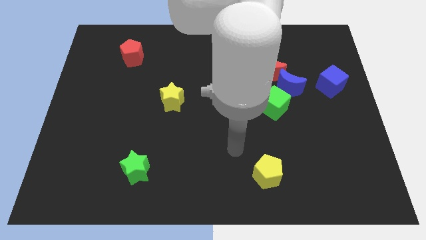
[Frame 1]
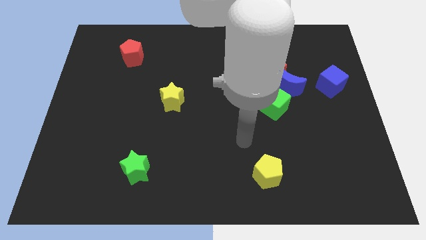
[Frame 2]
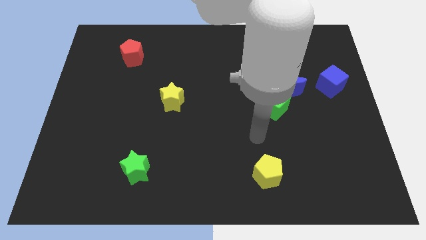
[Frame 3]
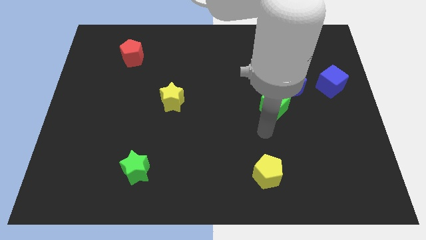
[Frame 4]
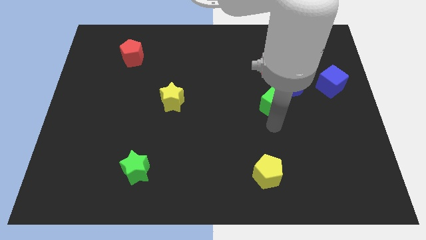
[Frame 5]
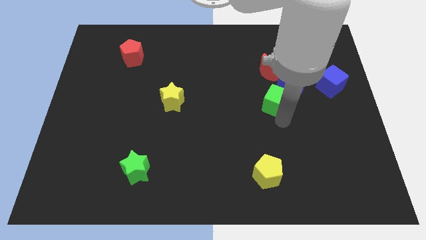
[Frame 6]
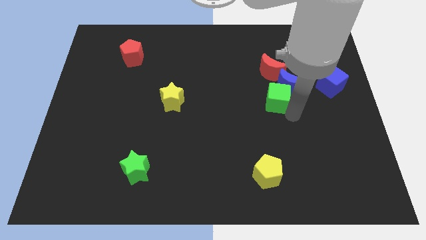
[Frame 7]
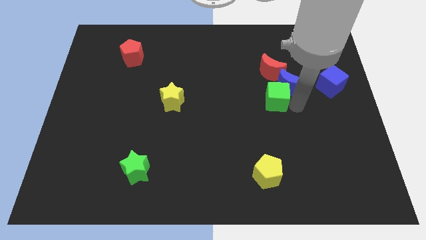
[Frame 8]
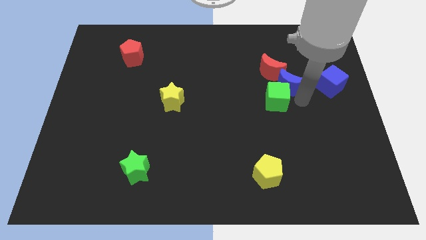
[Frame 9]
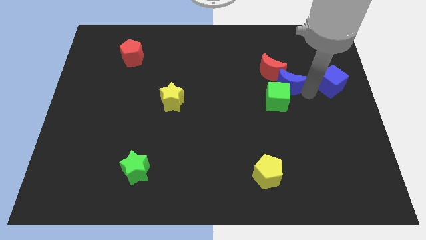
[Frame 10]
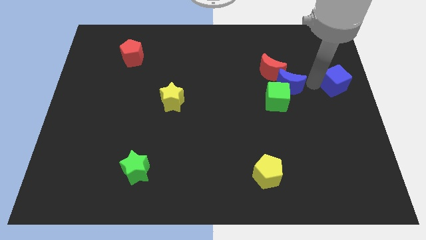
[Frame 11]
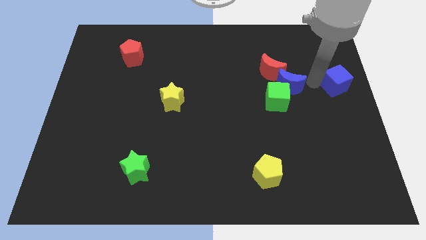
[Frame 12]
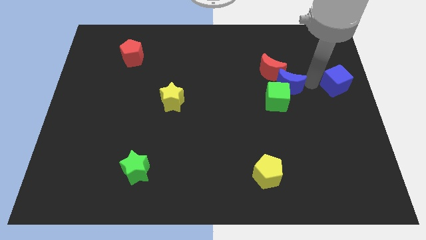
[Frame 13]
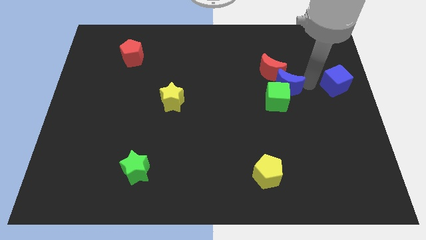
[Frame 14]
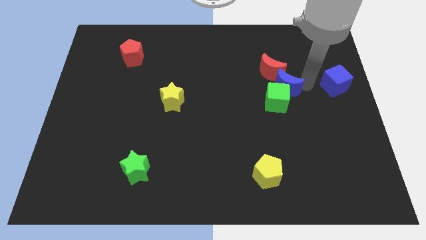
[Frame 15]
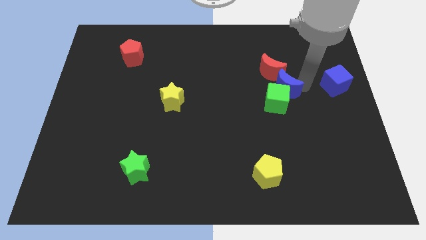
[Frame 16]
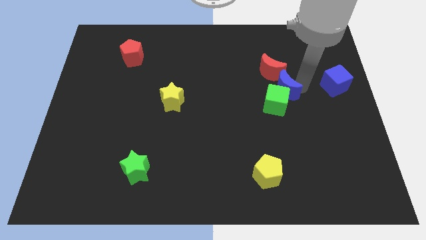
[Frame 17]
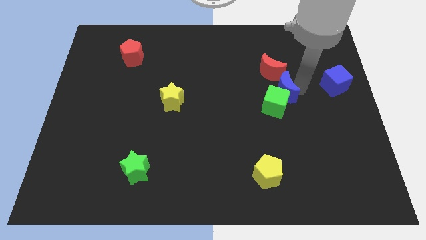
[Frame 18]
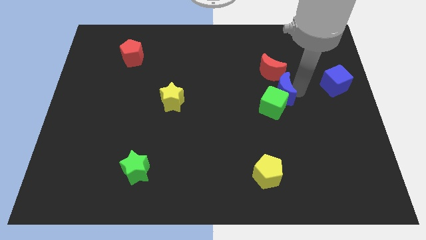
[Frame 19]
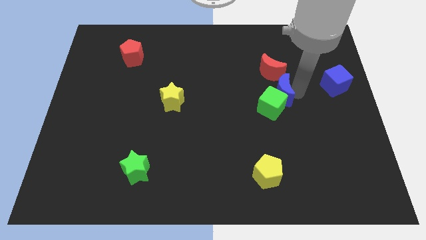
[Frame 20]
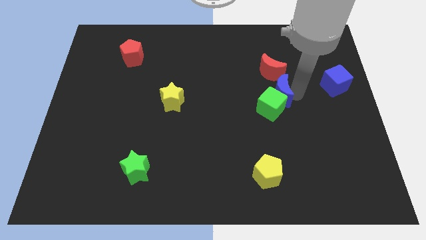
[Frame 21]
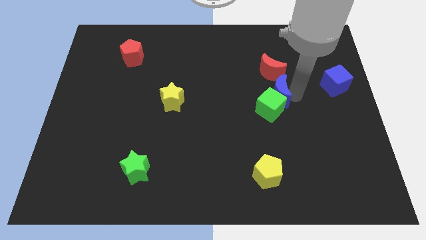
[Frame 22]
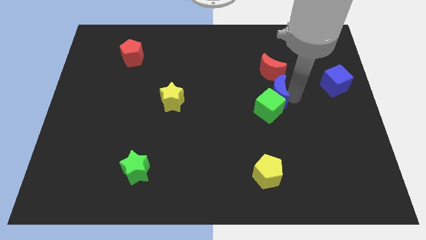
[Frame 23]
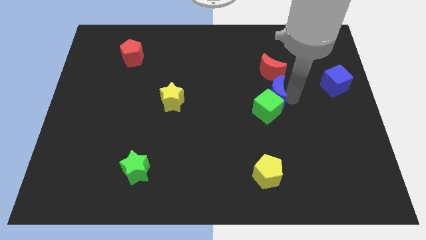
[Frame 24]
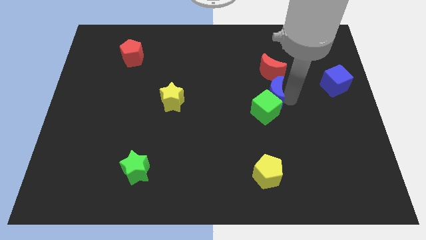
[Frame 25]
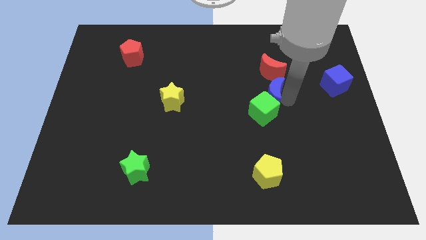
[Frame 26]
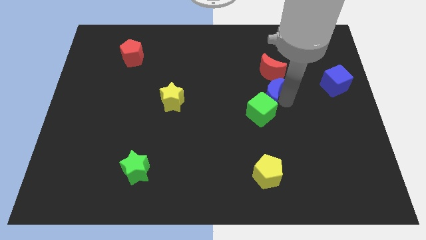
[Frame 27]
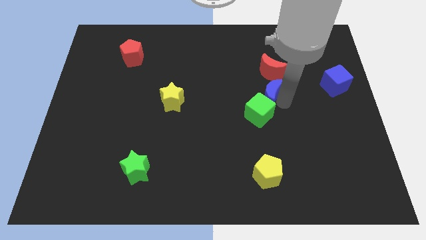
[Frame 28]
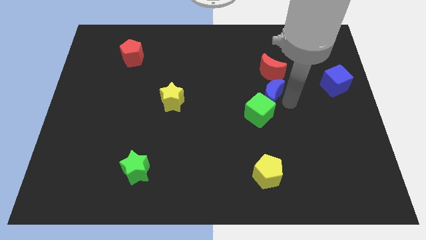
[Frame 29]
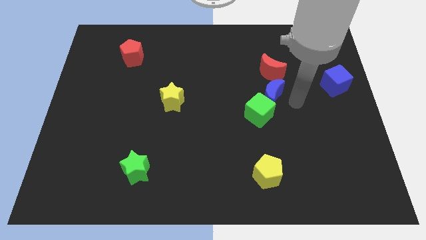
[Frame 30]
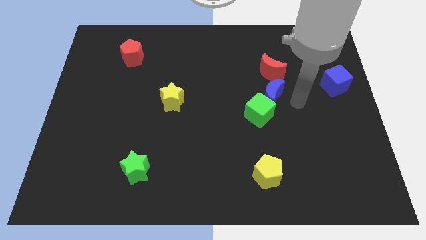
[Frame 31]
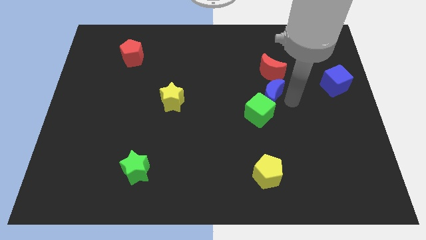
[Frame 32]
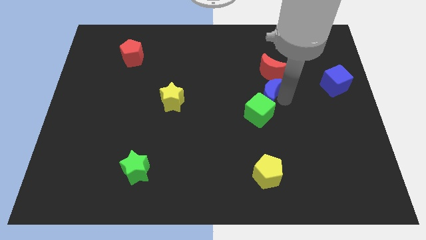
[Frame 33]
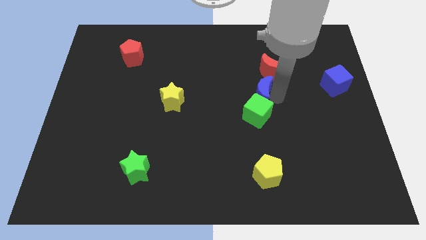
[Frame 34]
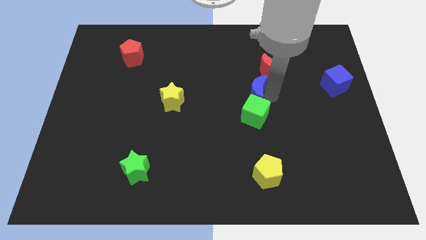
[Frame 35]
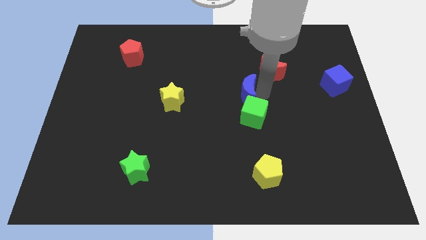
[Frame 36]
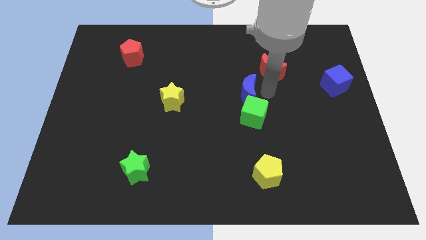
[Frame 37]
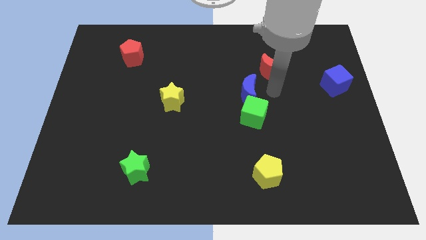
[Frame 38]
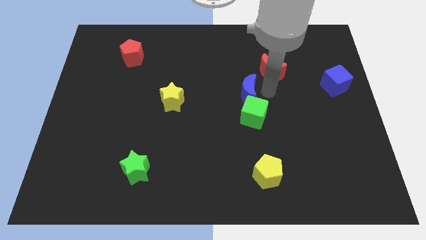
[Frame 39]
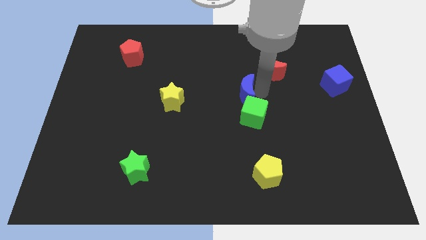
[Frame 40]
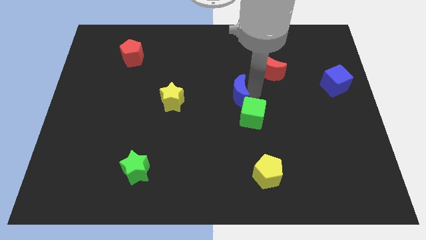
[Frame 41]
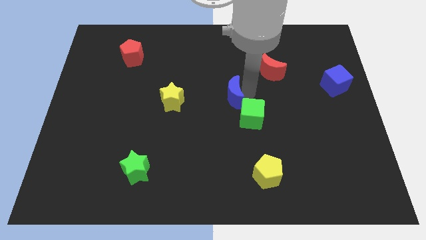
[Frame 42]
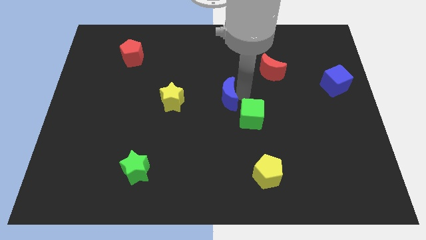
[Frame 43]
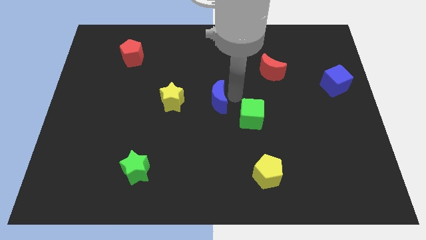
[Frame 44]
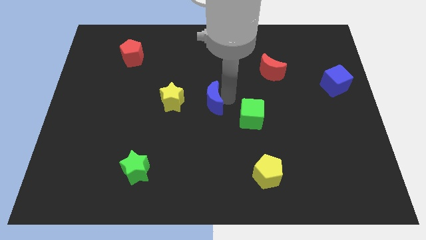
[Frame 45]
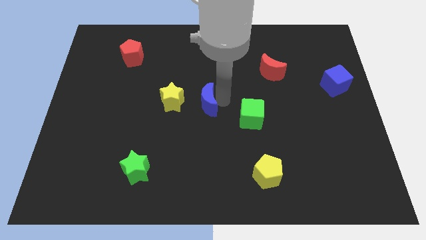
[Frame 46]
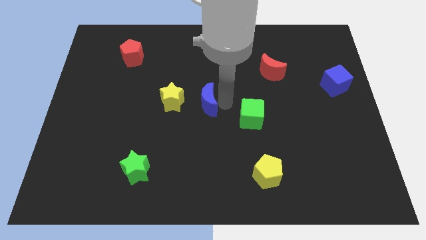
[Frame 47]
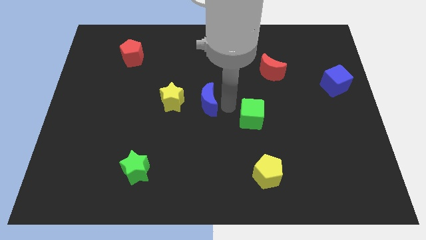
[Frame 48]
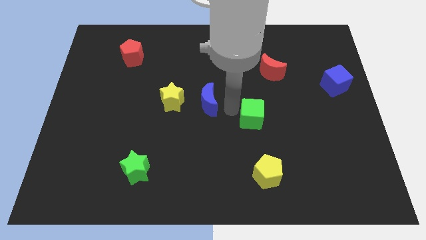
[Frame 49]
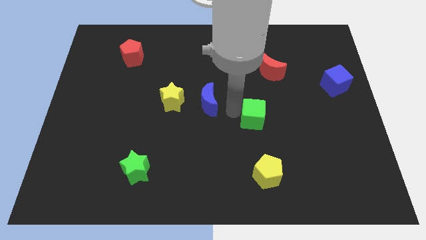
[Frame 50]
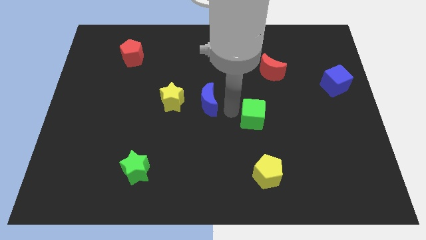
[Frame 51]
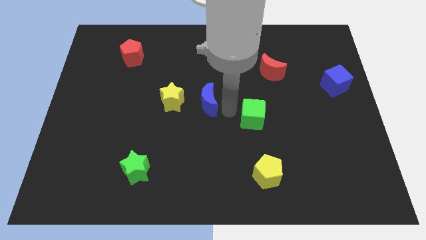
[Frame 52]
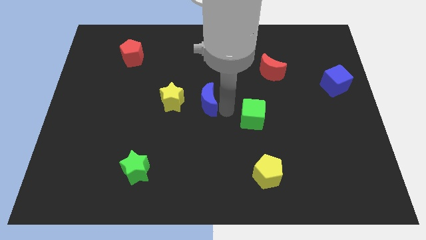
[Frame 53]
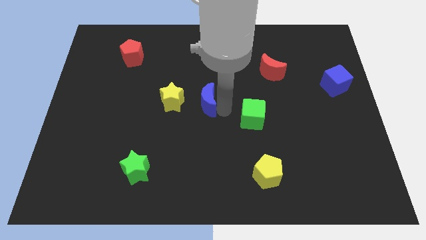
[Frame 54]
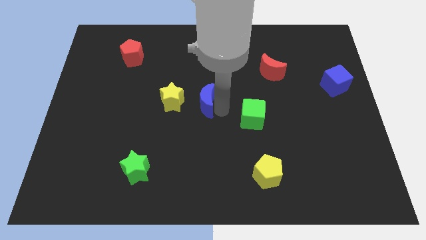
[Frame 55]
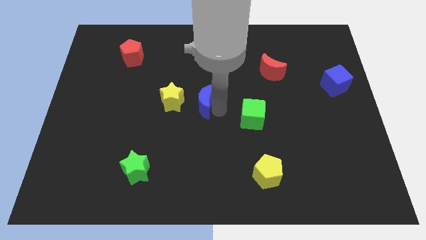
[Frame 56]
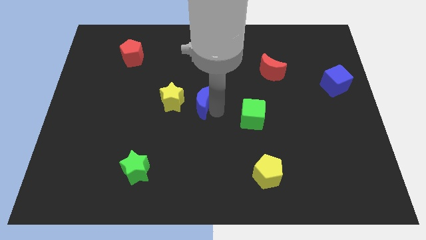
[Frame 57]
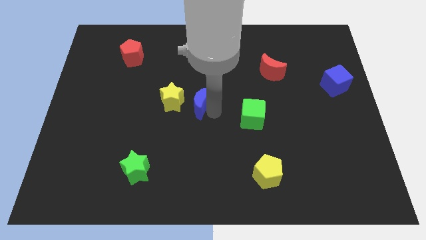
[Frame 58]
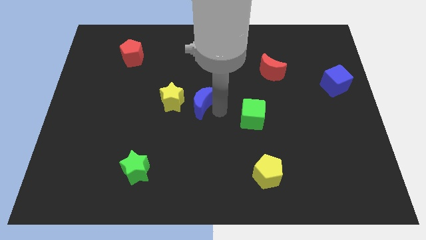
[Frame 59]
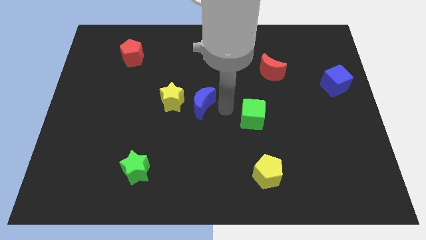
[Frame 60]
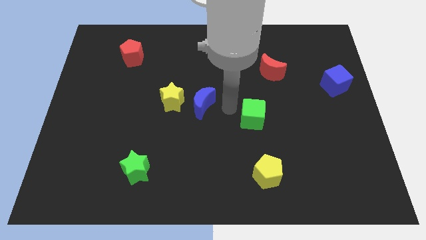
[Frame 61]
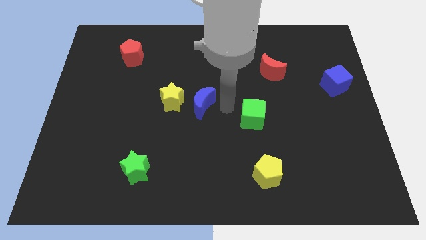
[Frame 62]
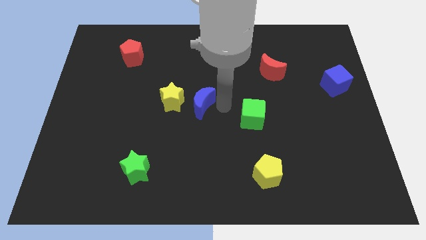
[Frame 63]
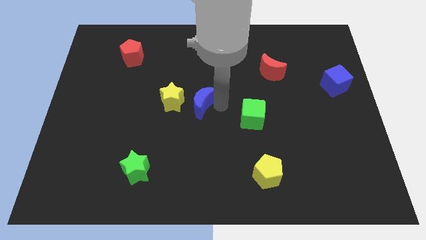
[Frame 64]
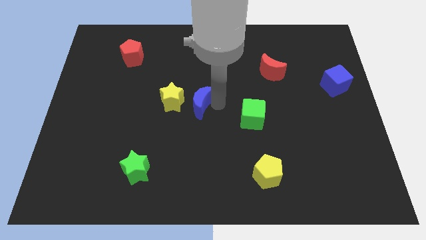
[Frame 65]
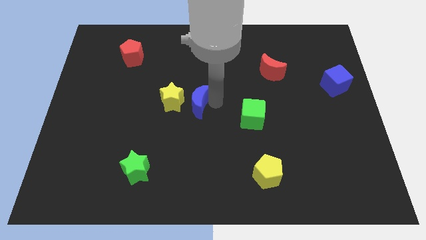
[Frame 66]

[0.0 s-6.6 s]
put the blue moon close to the yellow star
